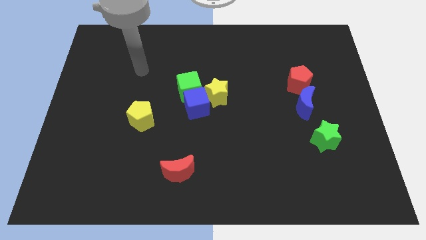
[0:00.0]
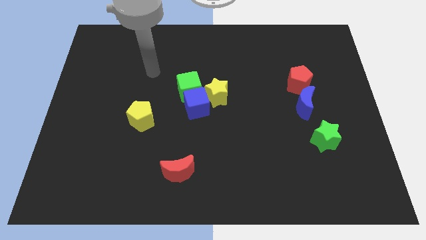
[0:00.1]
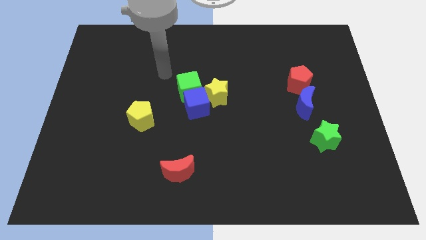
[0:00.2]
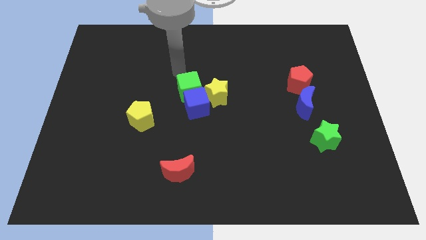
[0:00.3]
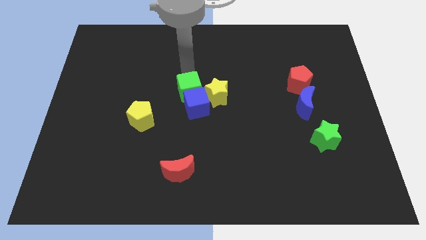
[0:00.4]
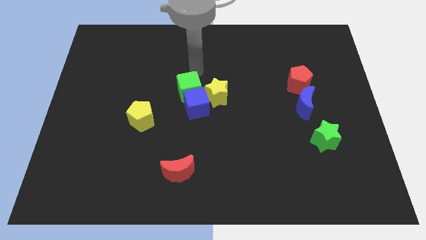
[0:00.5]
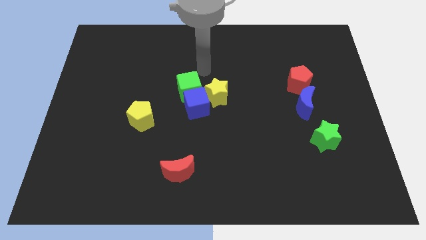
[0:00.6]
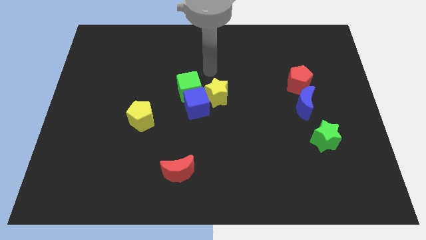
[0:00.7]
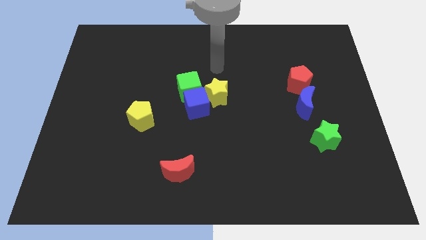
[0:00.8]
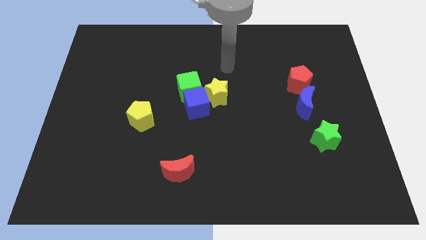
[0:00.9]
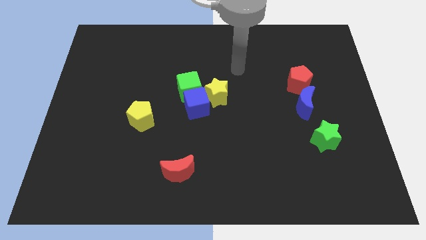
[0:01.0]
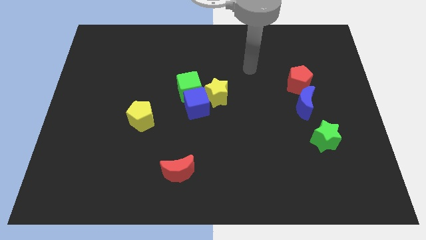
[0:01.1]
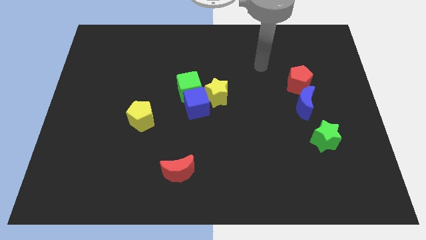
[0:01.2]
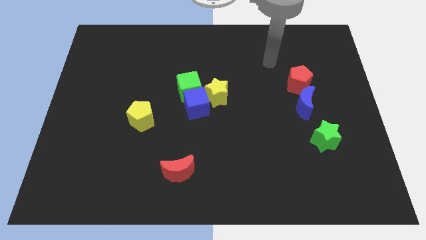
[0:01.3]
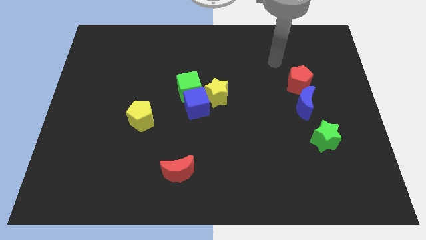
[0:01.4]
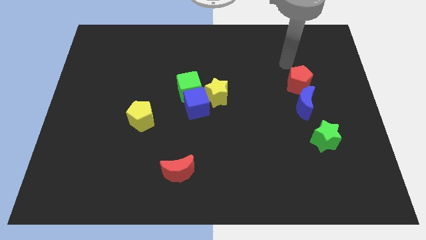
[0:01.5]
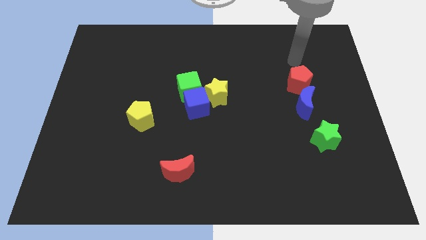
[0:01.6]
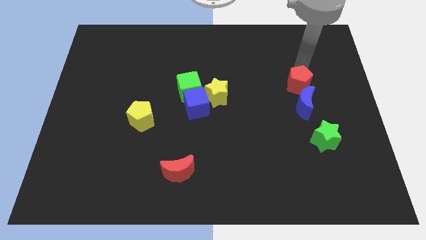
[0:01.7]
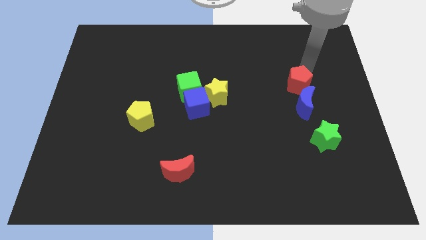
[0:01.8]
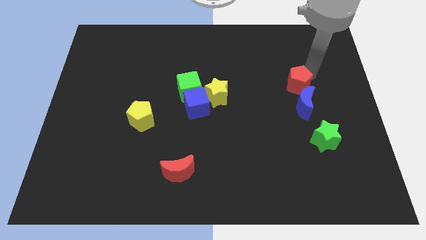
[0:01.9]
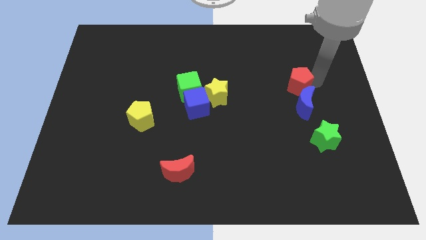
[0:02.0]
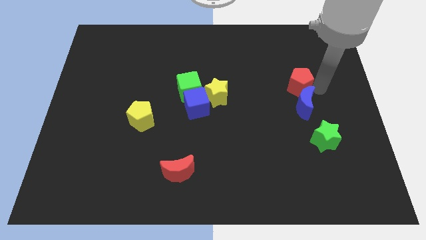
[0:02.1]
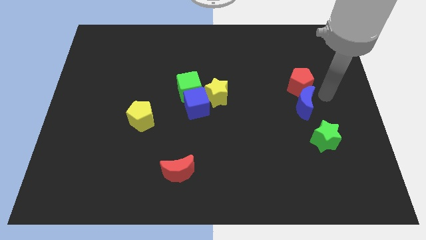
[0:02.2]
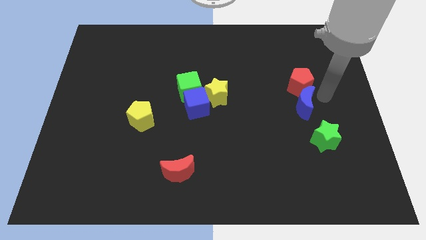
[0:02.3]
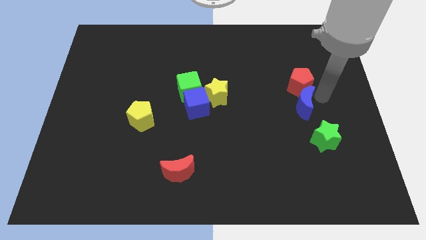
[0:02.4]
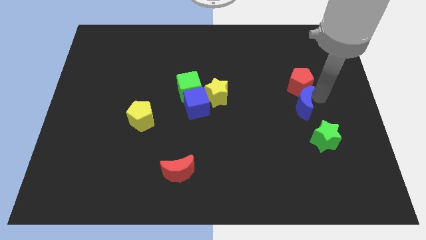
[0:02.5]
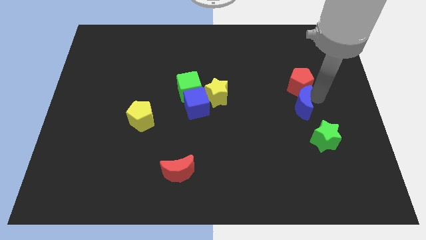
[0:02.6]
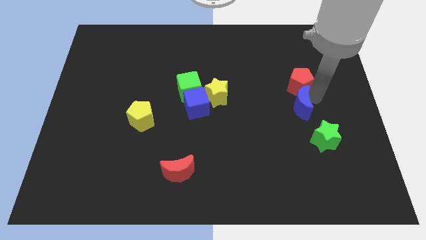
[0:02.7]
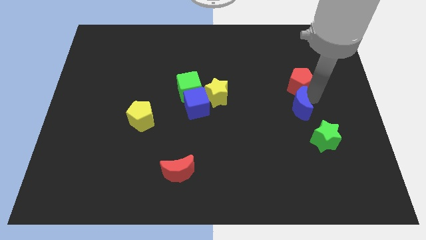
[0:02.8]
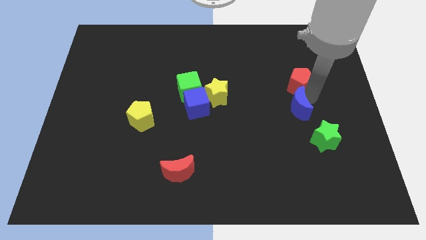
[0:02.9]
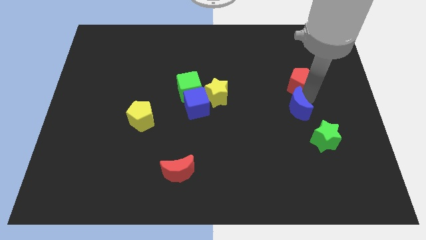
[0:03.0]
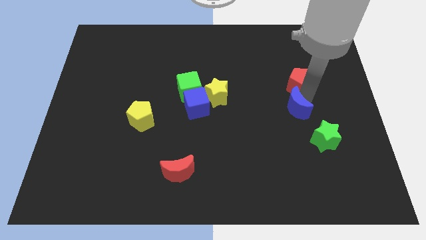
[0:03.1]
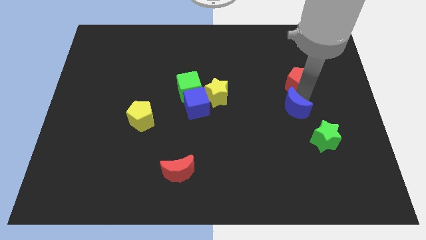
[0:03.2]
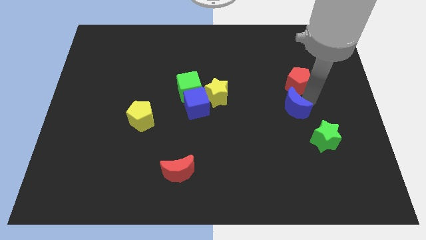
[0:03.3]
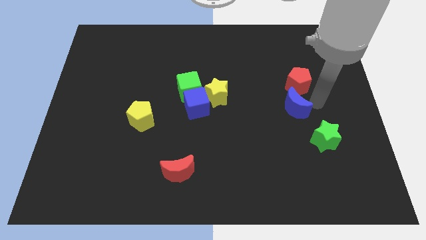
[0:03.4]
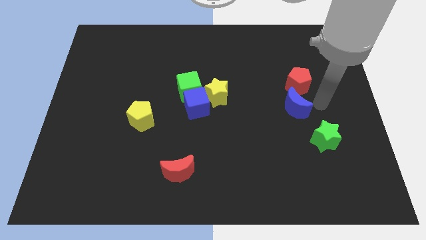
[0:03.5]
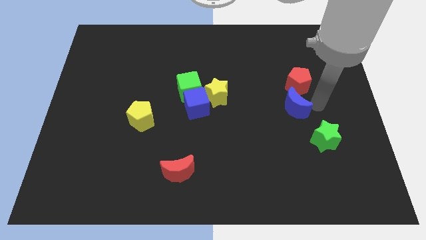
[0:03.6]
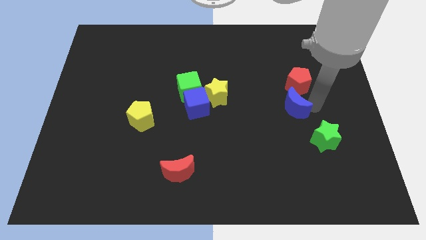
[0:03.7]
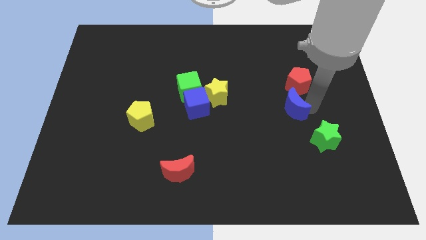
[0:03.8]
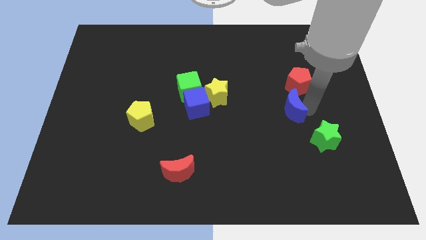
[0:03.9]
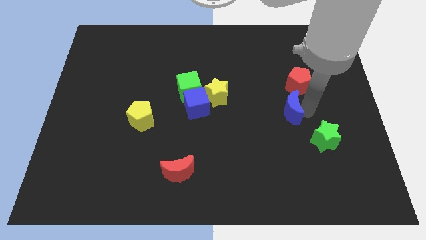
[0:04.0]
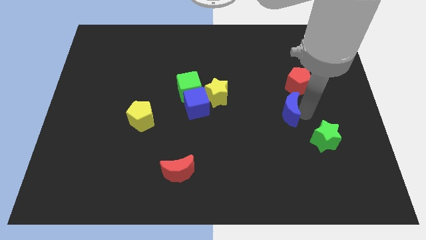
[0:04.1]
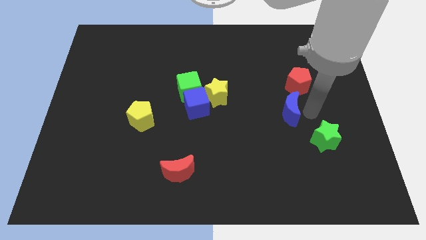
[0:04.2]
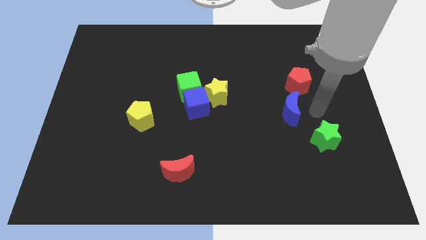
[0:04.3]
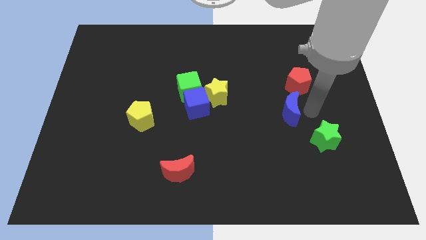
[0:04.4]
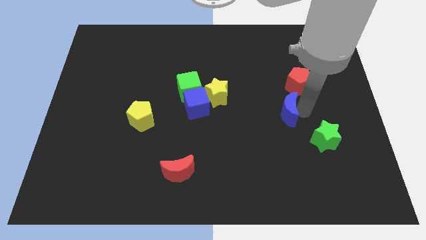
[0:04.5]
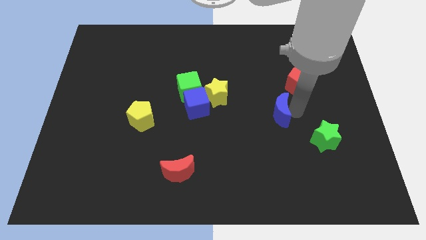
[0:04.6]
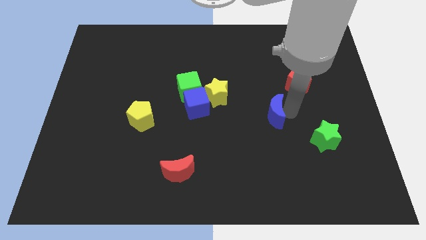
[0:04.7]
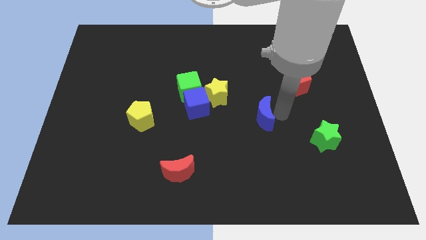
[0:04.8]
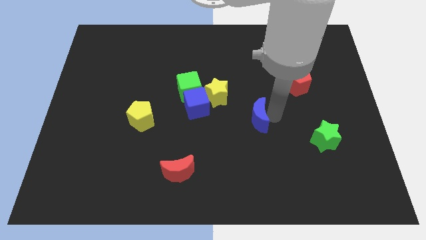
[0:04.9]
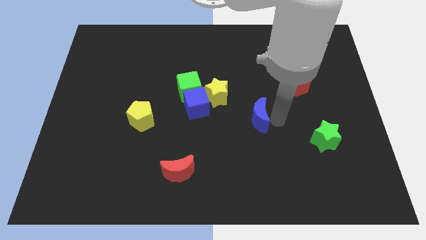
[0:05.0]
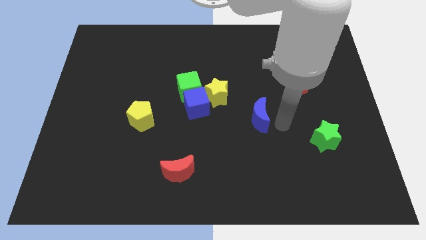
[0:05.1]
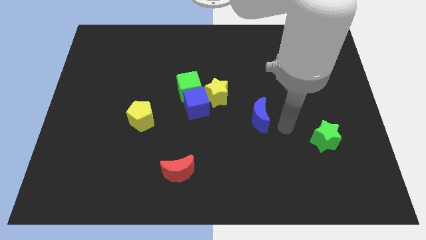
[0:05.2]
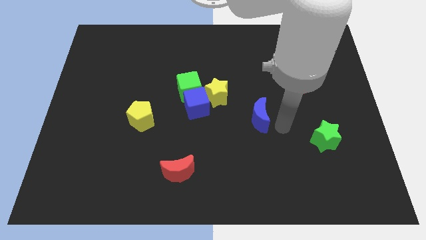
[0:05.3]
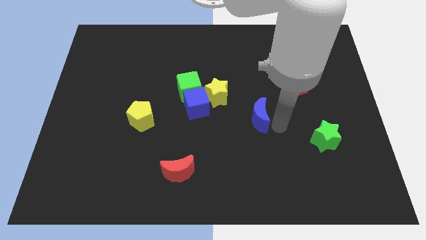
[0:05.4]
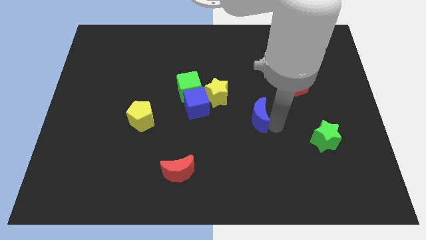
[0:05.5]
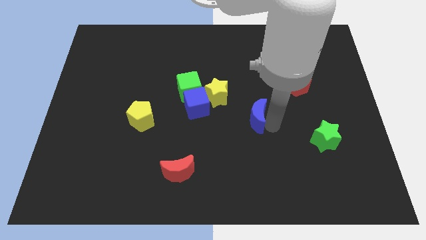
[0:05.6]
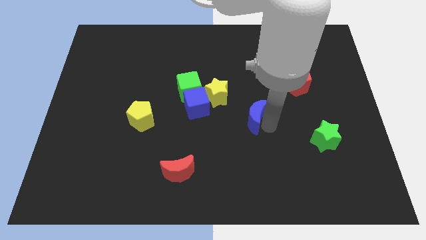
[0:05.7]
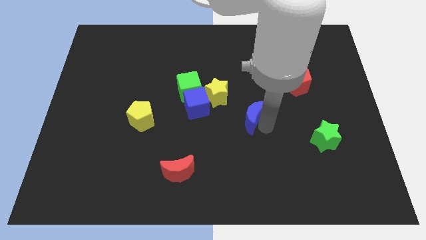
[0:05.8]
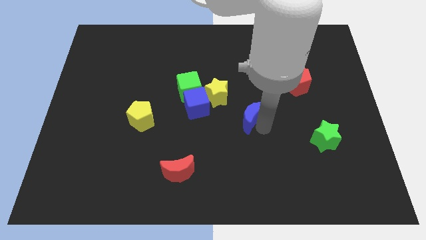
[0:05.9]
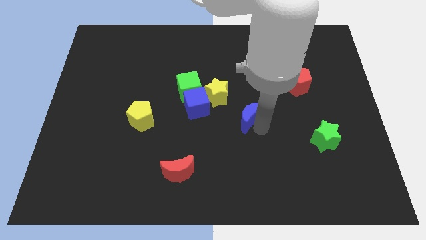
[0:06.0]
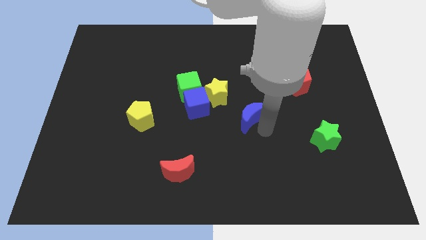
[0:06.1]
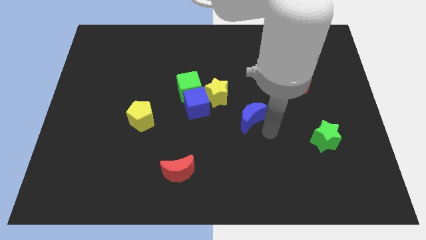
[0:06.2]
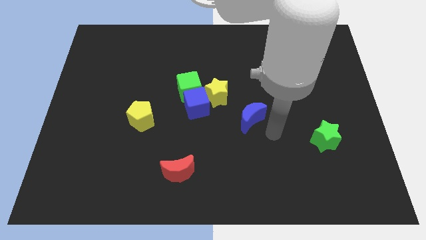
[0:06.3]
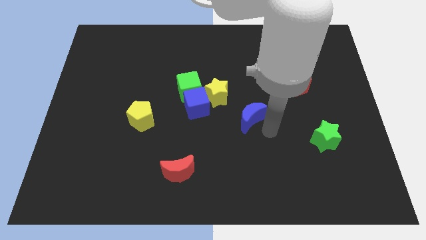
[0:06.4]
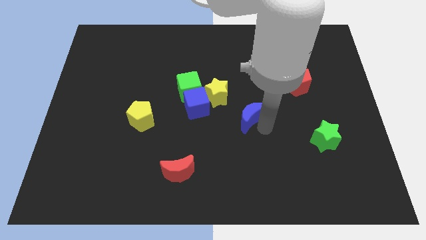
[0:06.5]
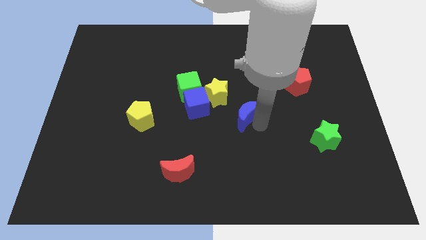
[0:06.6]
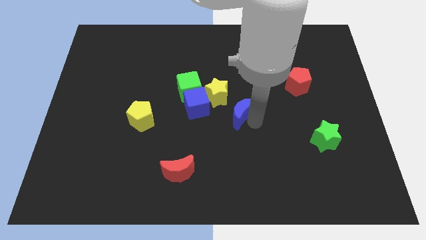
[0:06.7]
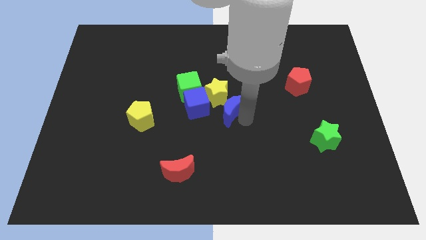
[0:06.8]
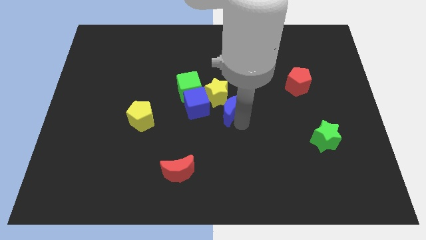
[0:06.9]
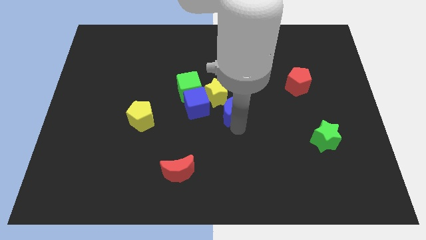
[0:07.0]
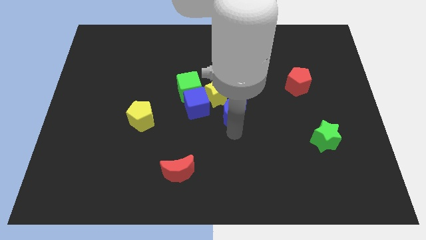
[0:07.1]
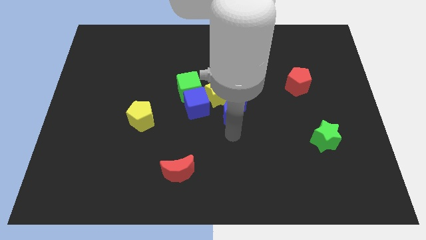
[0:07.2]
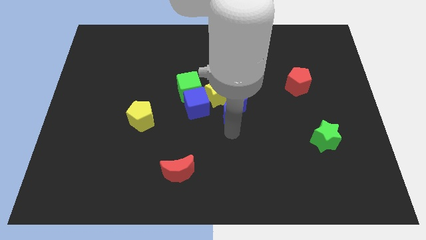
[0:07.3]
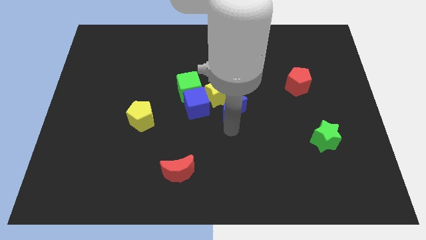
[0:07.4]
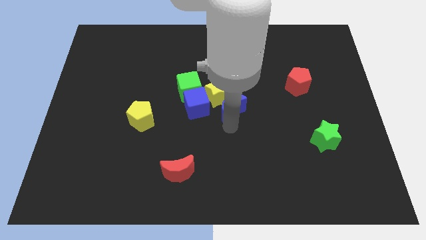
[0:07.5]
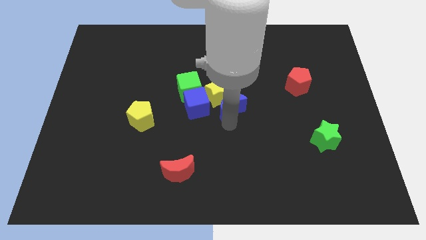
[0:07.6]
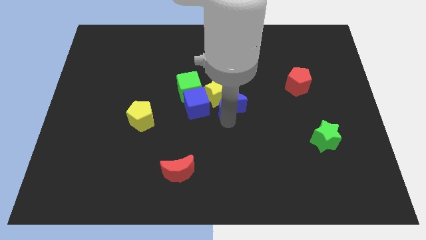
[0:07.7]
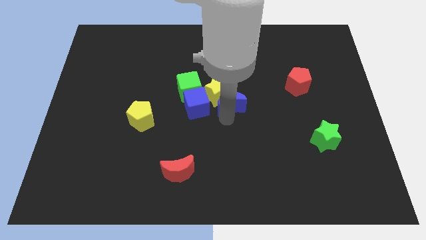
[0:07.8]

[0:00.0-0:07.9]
move the blue moon right of the green cube

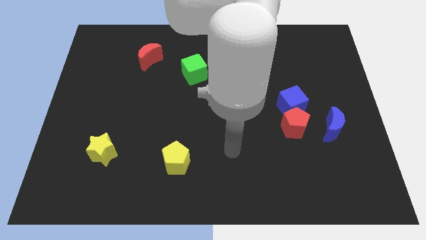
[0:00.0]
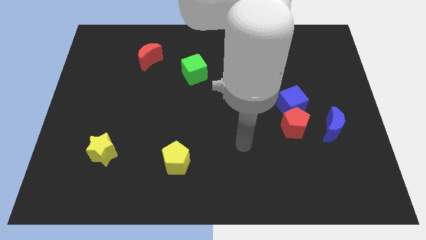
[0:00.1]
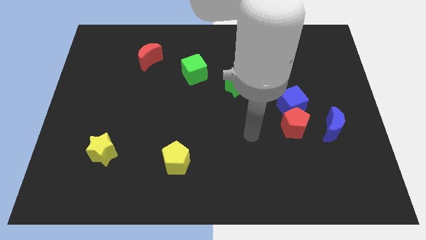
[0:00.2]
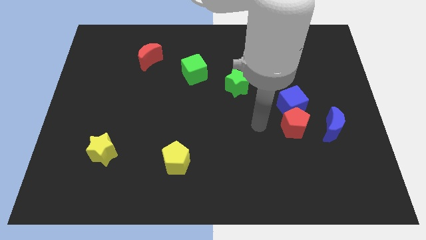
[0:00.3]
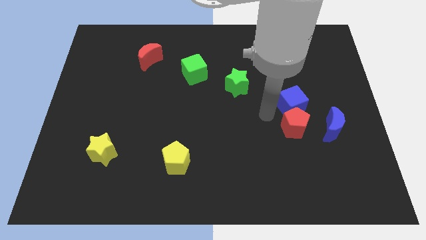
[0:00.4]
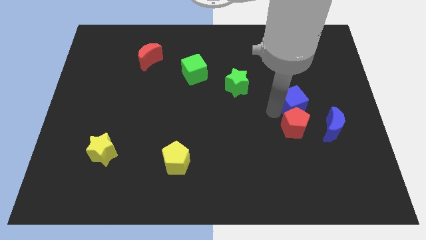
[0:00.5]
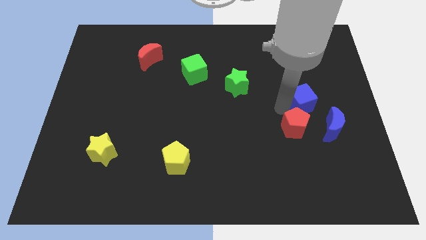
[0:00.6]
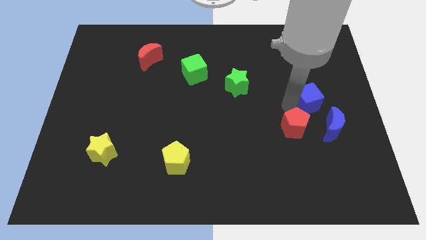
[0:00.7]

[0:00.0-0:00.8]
put the blue cube to the top of the blue moon
